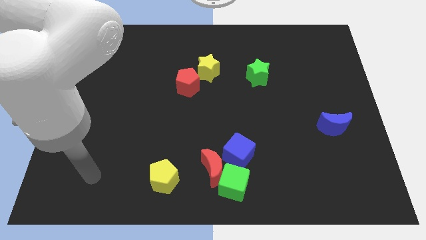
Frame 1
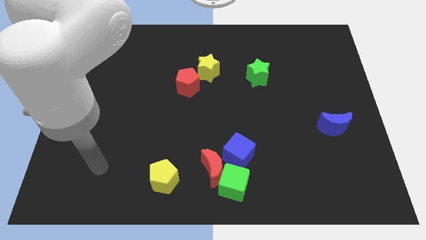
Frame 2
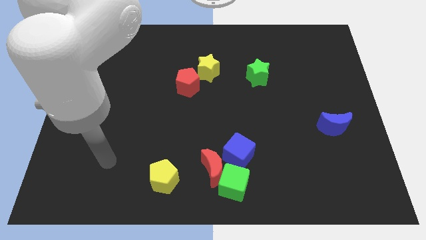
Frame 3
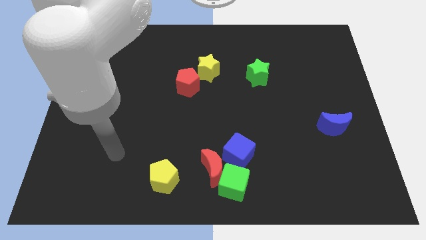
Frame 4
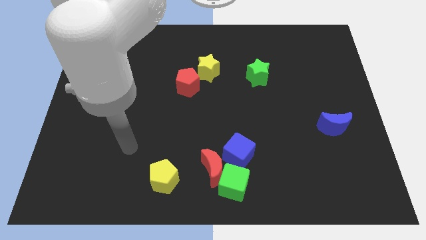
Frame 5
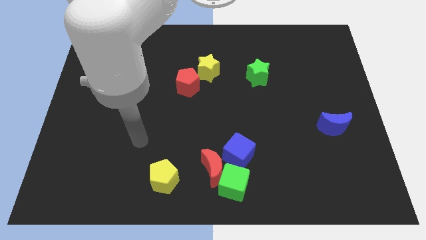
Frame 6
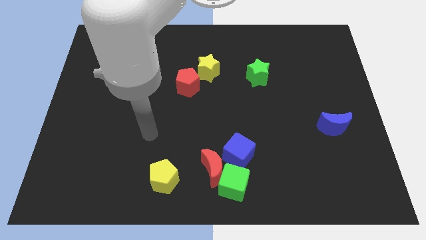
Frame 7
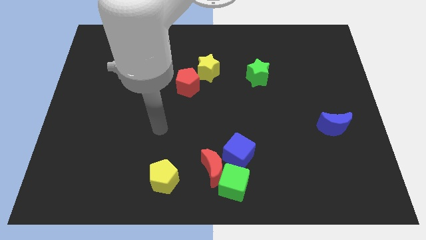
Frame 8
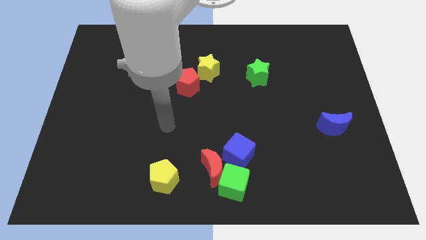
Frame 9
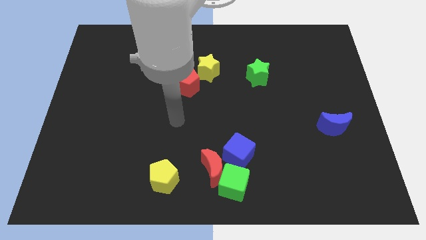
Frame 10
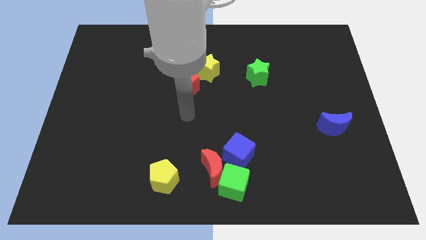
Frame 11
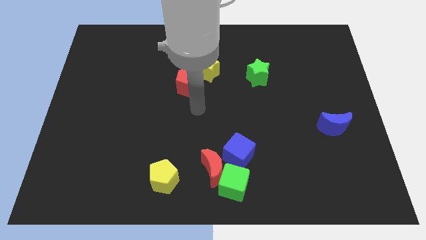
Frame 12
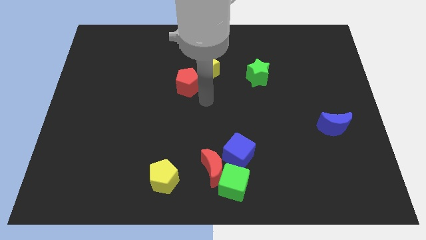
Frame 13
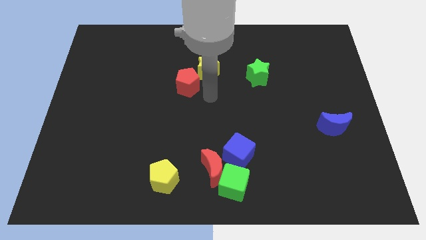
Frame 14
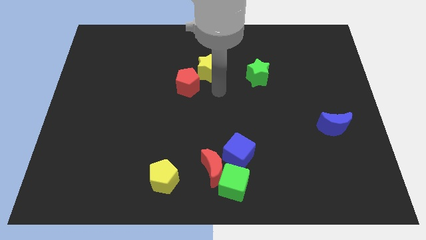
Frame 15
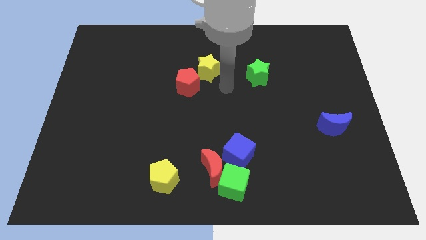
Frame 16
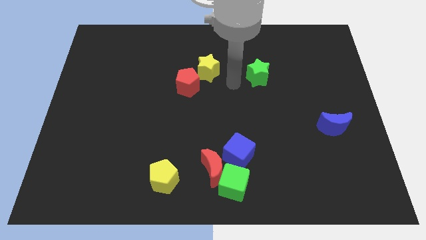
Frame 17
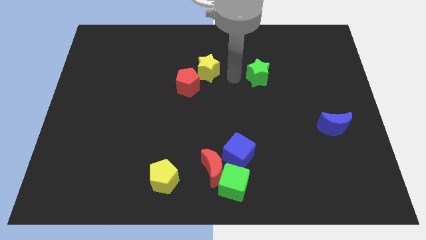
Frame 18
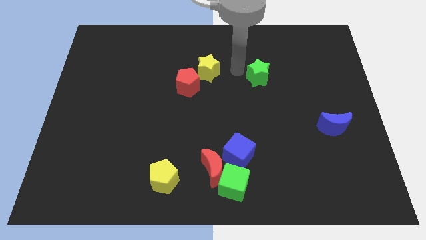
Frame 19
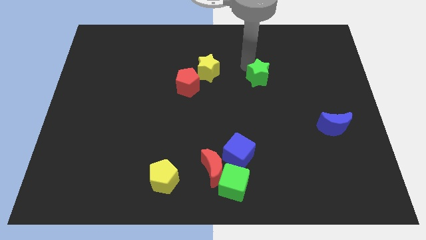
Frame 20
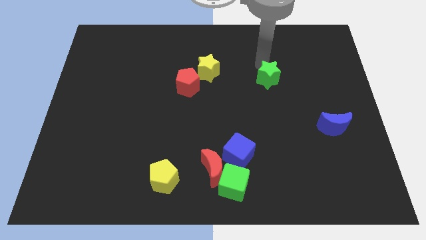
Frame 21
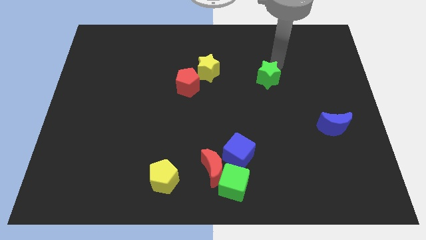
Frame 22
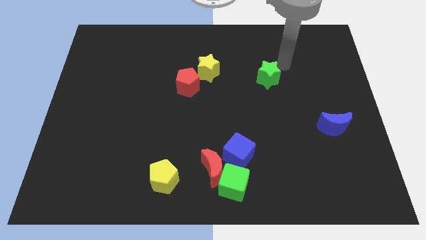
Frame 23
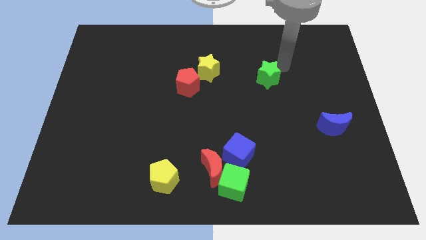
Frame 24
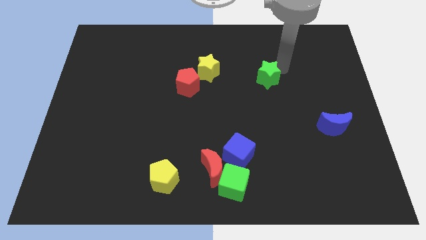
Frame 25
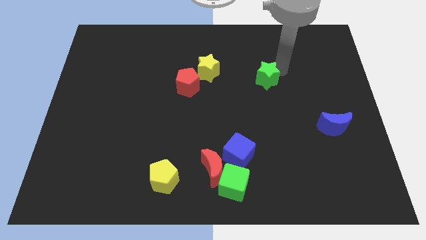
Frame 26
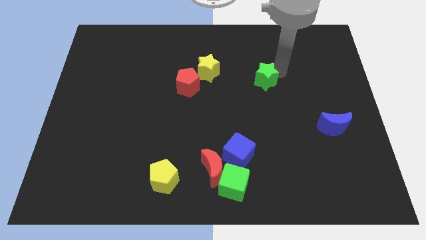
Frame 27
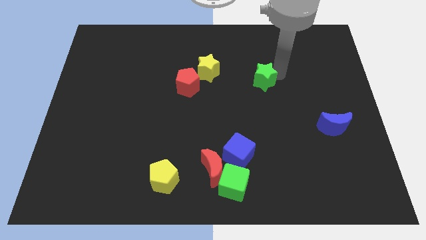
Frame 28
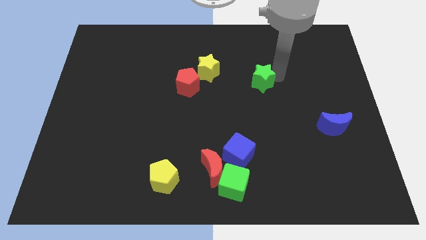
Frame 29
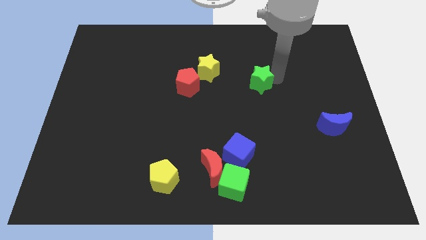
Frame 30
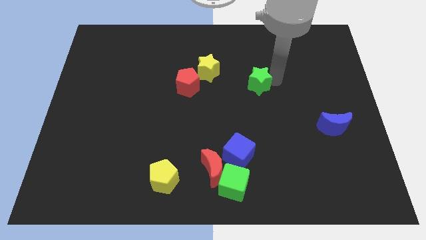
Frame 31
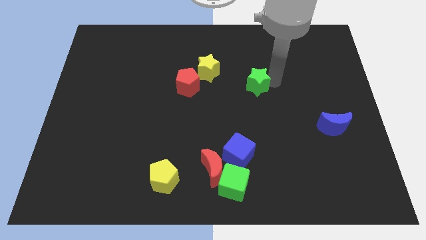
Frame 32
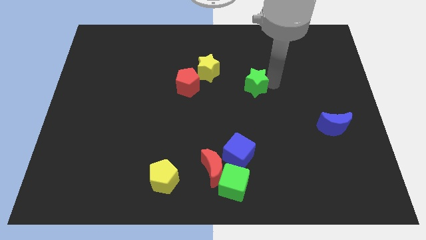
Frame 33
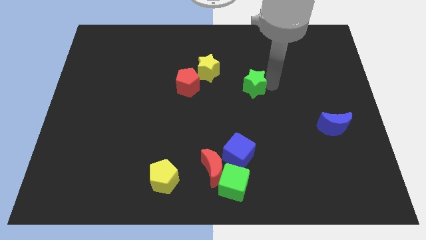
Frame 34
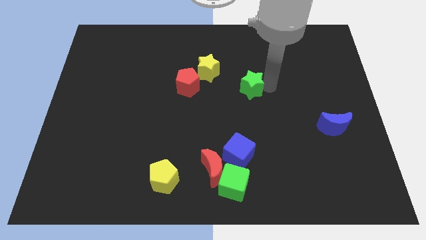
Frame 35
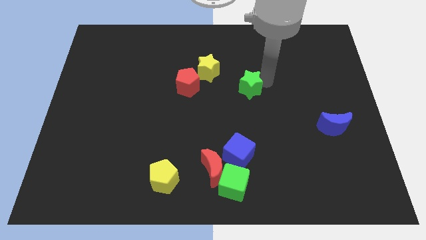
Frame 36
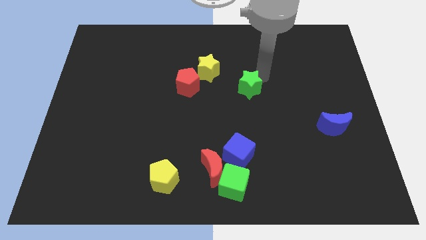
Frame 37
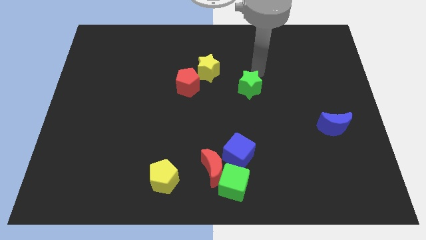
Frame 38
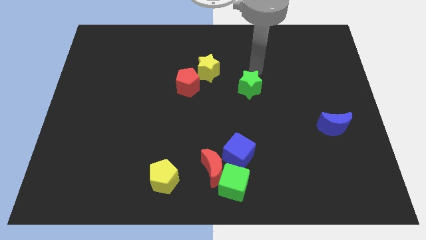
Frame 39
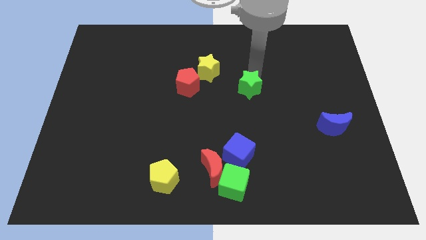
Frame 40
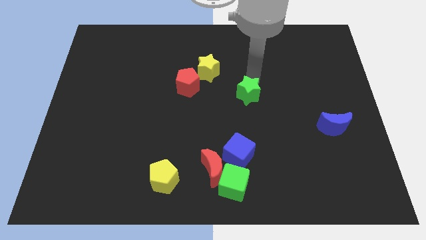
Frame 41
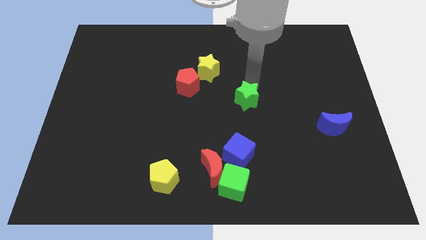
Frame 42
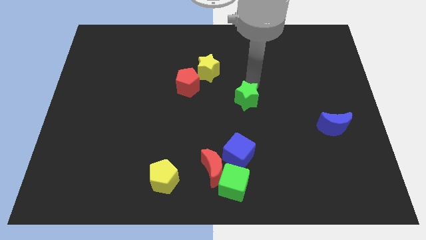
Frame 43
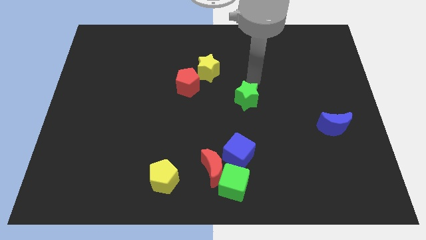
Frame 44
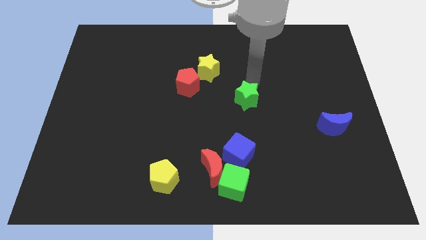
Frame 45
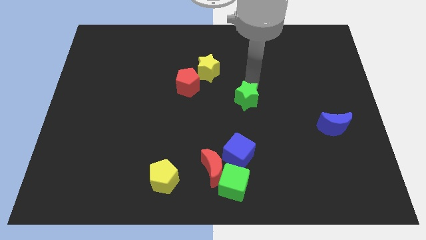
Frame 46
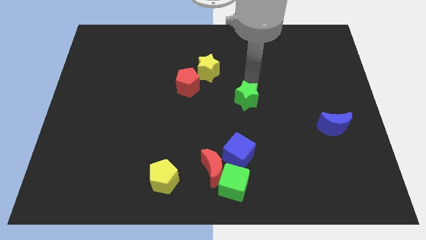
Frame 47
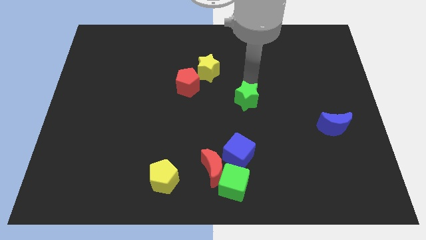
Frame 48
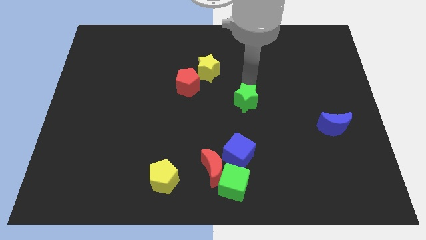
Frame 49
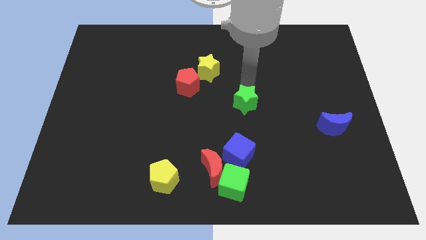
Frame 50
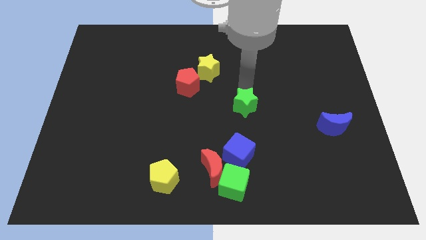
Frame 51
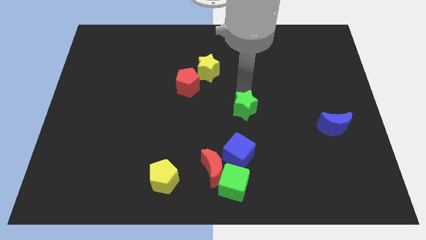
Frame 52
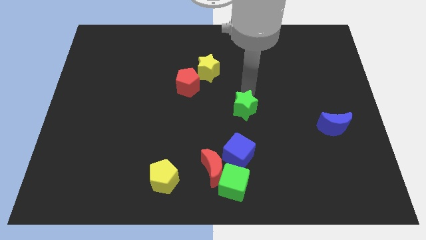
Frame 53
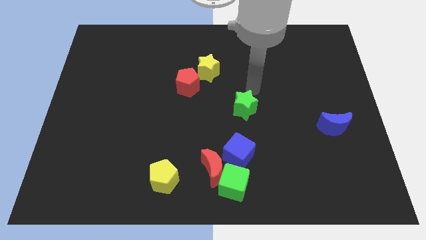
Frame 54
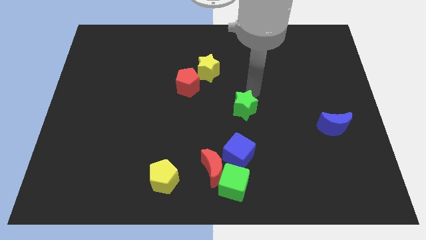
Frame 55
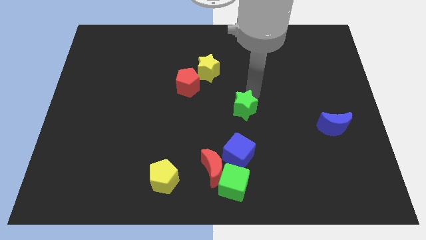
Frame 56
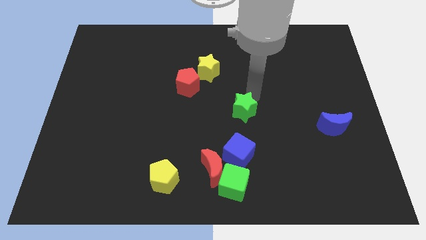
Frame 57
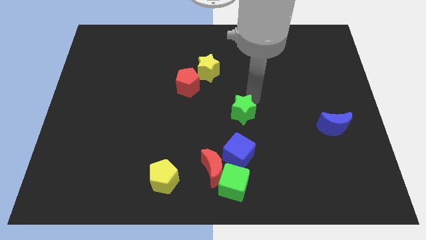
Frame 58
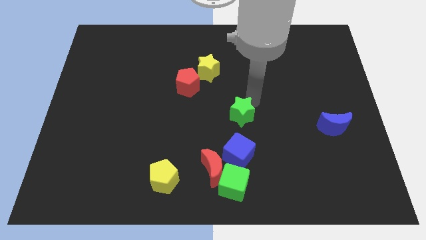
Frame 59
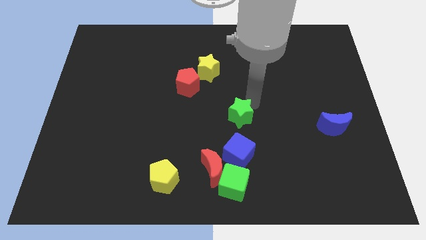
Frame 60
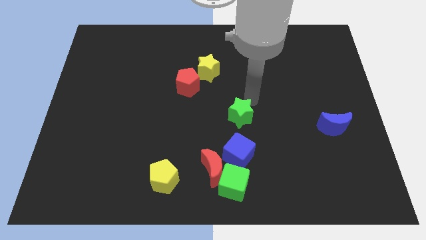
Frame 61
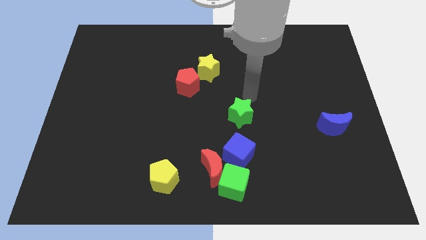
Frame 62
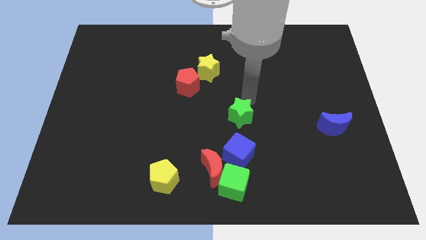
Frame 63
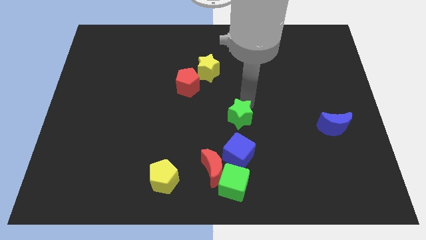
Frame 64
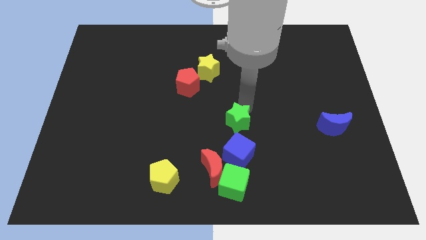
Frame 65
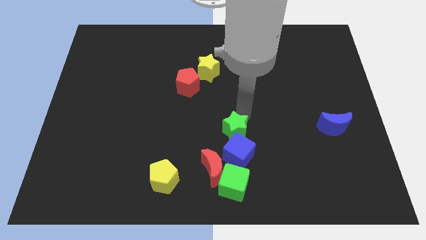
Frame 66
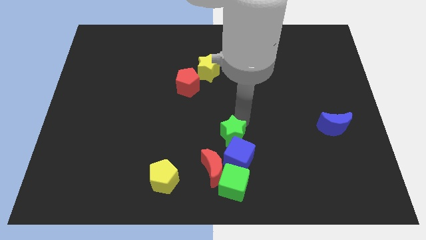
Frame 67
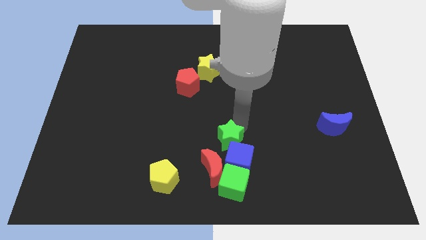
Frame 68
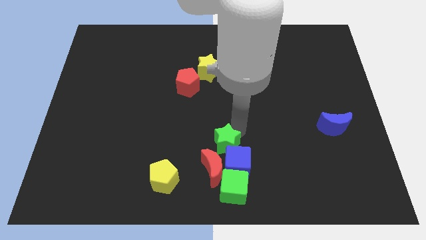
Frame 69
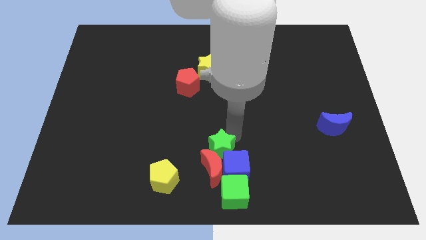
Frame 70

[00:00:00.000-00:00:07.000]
move the green star close to the red moon

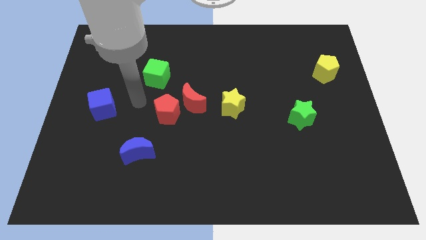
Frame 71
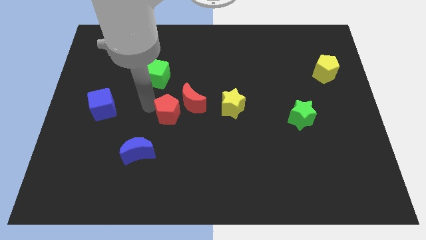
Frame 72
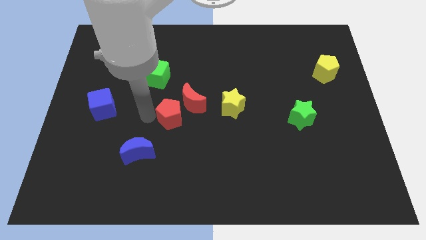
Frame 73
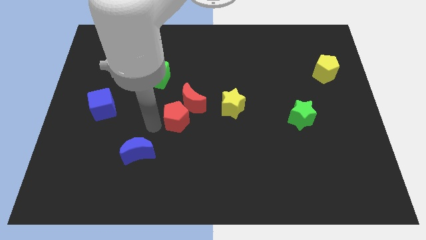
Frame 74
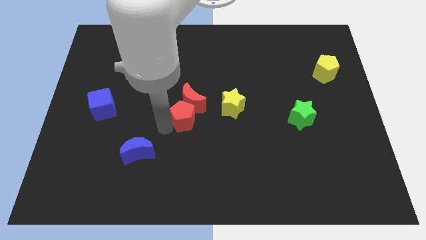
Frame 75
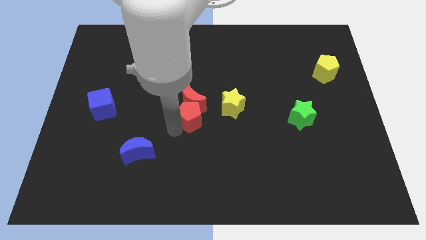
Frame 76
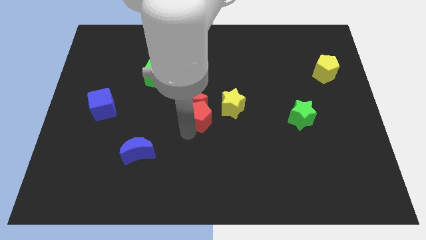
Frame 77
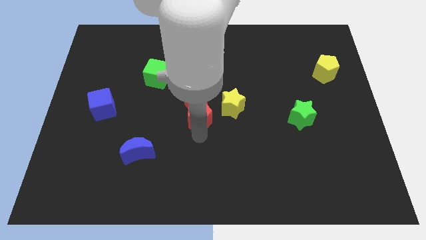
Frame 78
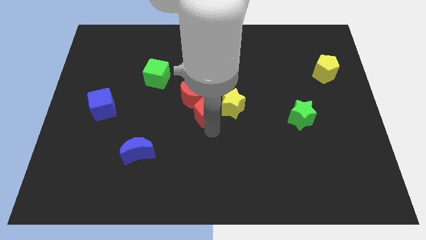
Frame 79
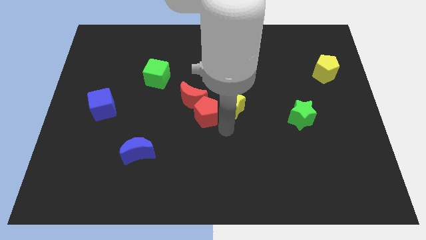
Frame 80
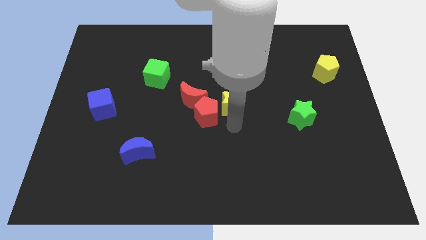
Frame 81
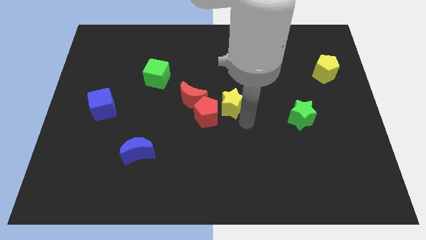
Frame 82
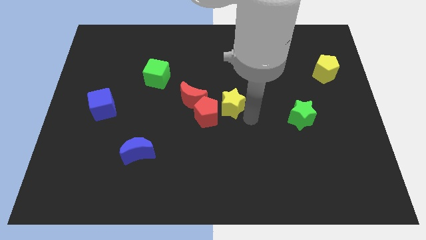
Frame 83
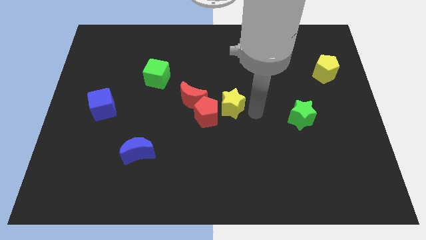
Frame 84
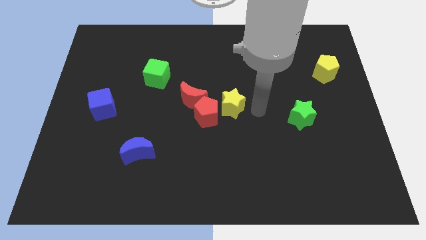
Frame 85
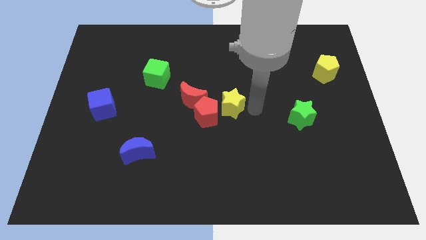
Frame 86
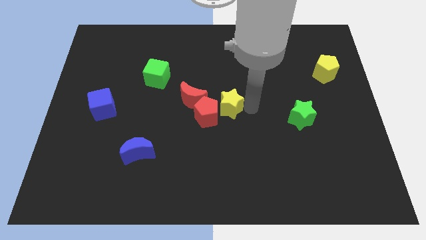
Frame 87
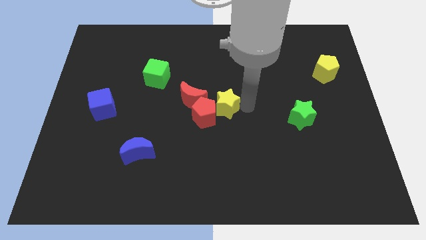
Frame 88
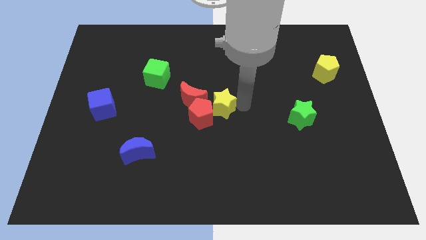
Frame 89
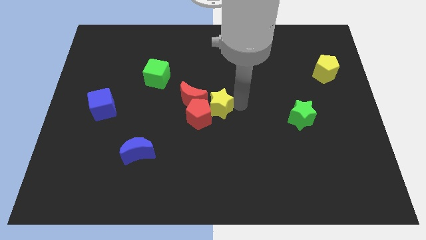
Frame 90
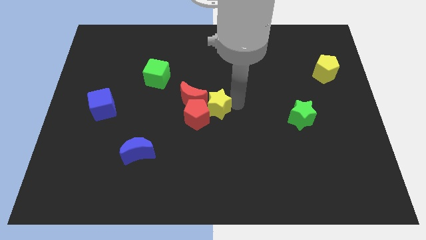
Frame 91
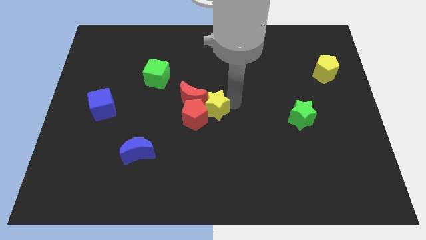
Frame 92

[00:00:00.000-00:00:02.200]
push the yellow star next to the red moon
